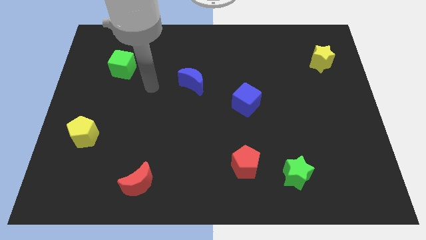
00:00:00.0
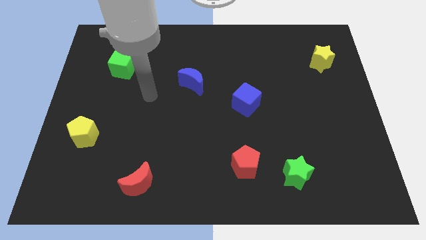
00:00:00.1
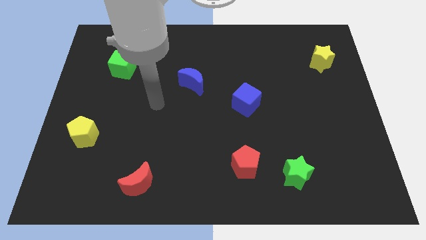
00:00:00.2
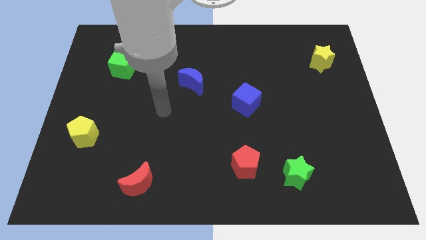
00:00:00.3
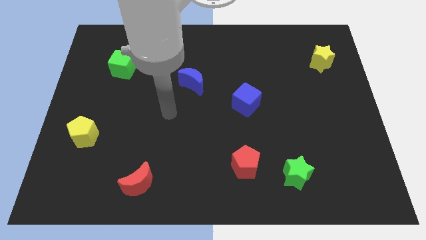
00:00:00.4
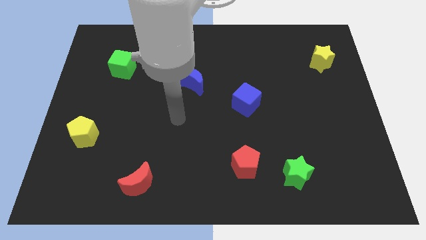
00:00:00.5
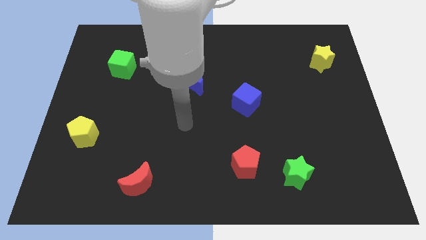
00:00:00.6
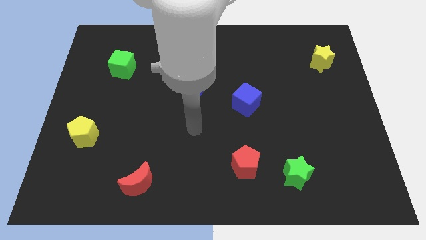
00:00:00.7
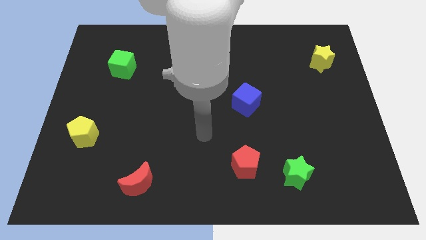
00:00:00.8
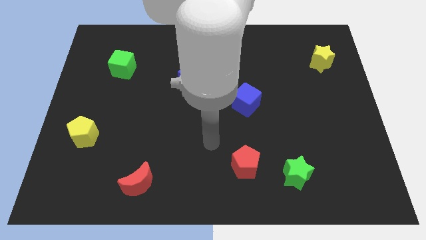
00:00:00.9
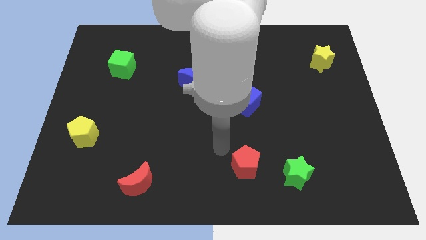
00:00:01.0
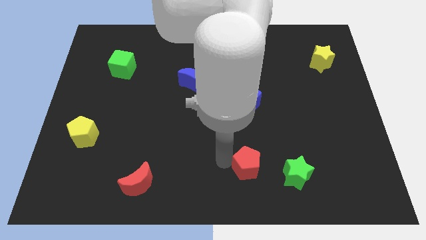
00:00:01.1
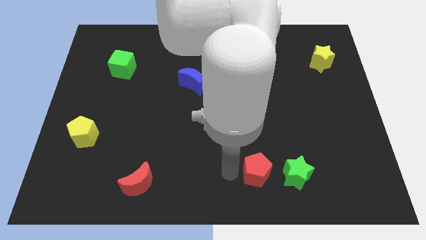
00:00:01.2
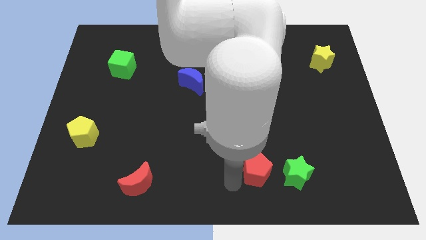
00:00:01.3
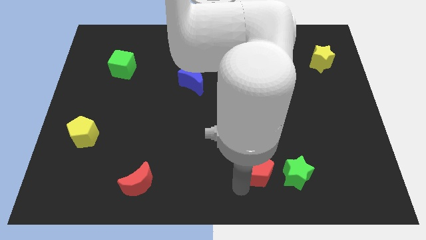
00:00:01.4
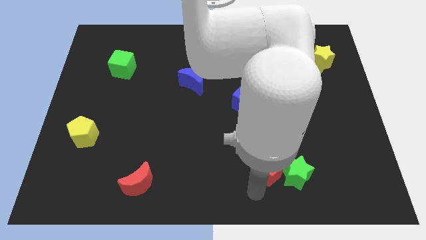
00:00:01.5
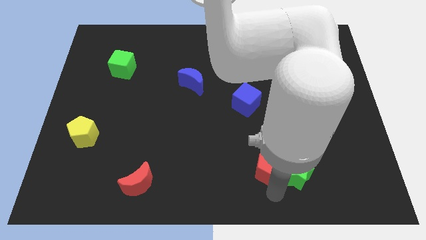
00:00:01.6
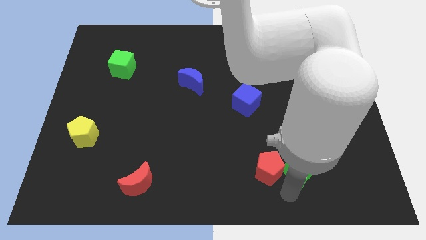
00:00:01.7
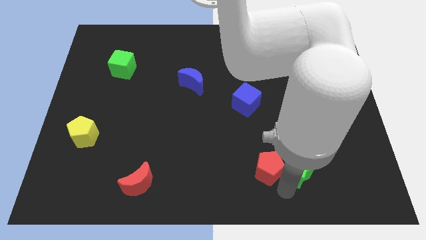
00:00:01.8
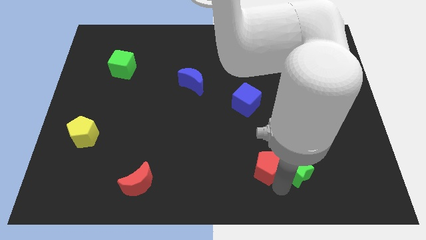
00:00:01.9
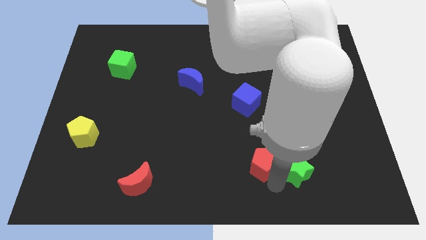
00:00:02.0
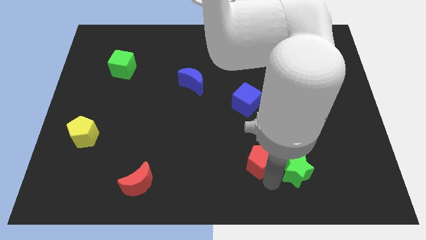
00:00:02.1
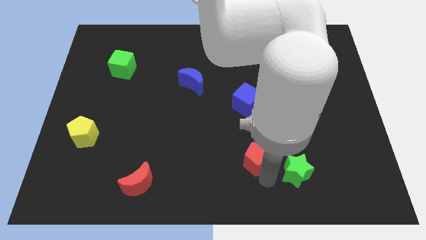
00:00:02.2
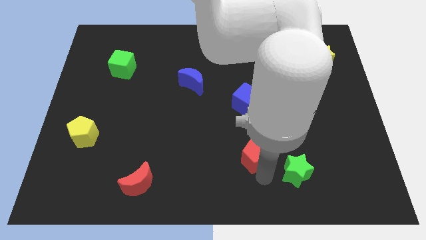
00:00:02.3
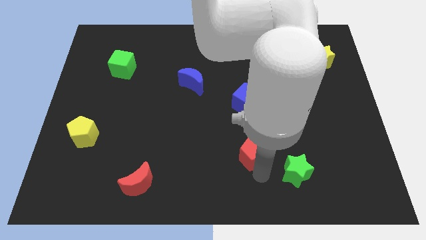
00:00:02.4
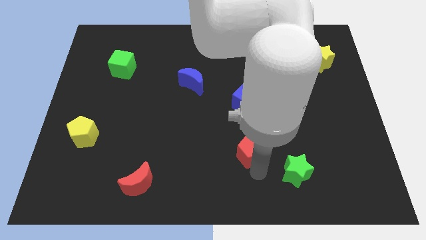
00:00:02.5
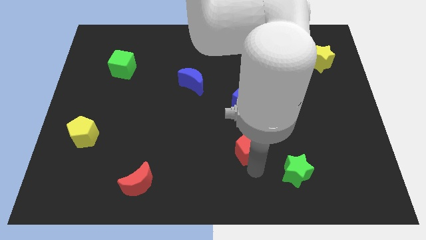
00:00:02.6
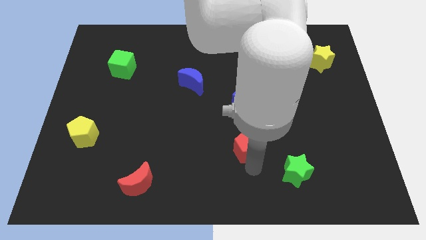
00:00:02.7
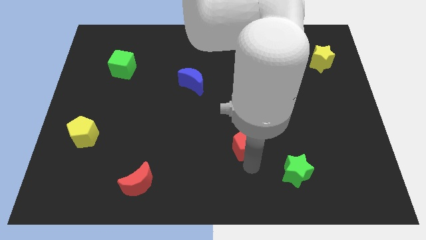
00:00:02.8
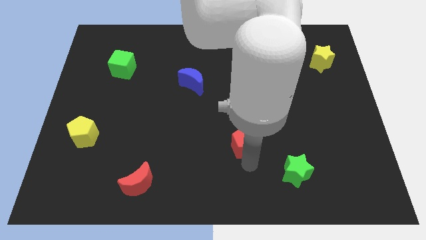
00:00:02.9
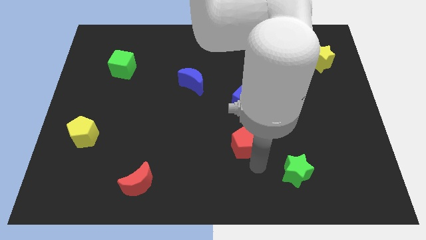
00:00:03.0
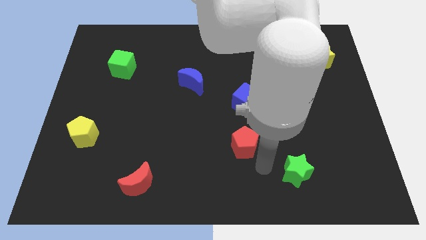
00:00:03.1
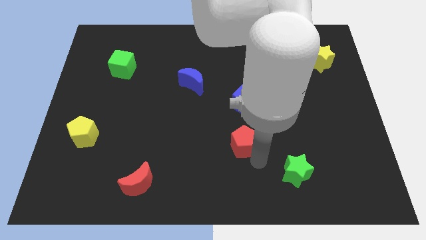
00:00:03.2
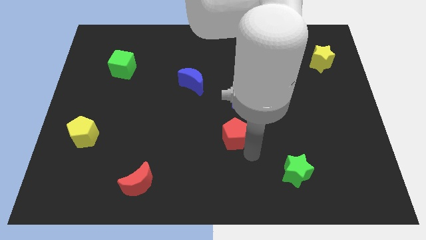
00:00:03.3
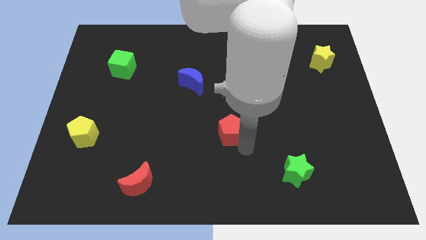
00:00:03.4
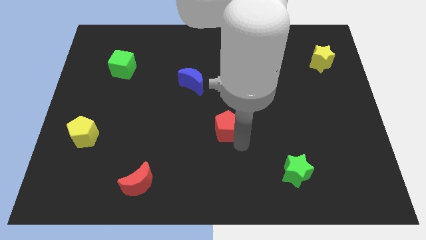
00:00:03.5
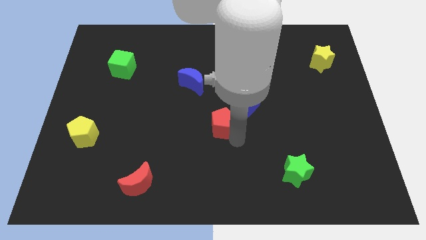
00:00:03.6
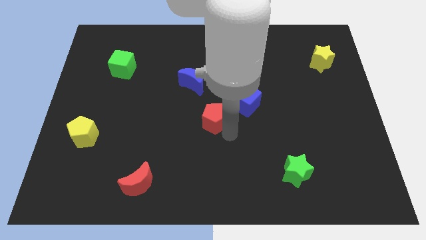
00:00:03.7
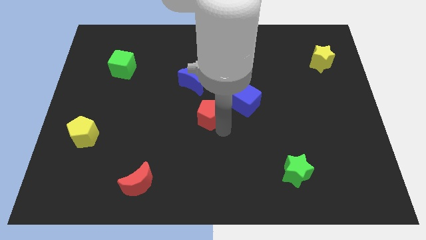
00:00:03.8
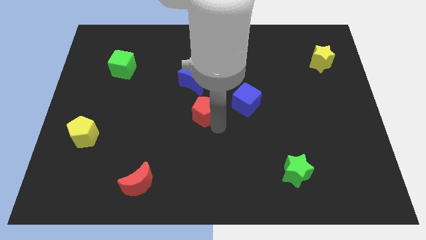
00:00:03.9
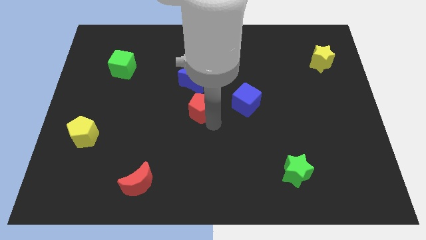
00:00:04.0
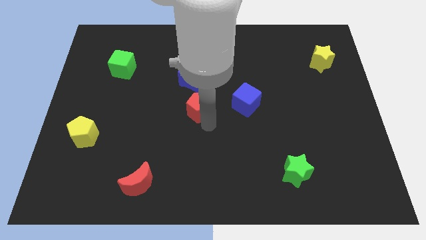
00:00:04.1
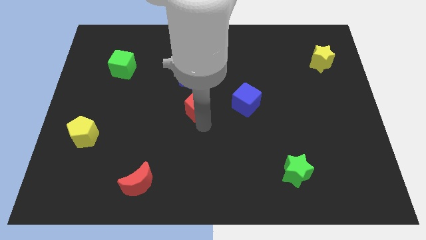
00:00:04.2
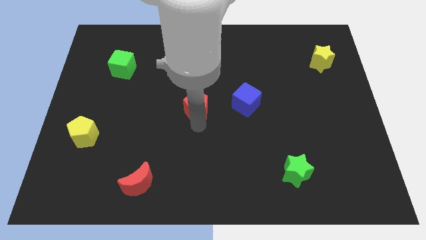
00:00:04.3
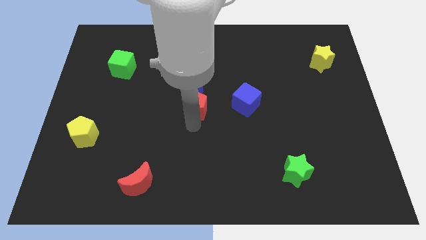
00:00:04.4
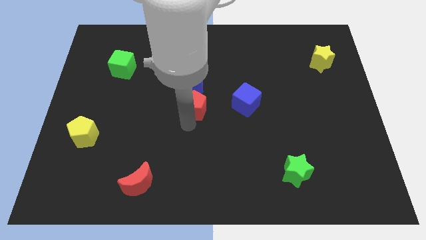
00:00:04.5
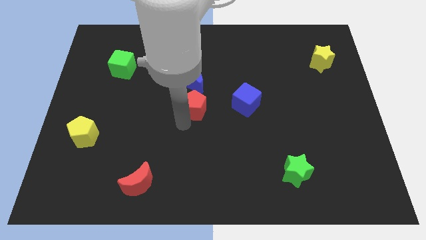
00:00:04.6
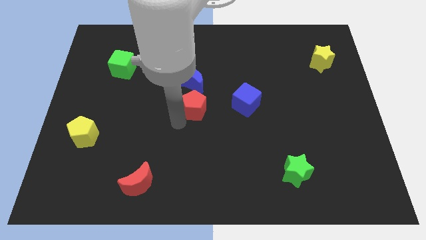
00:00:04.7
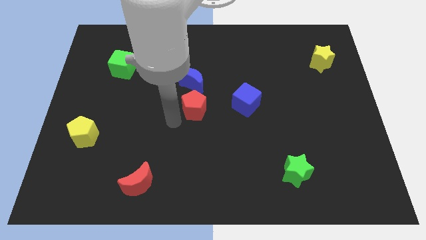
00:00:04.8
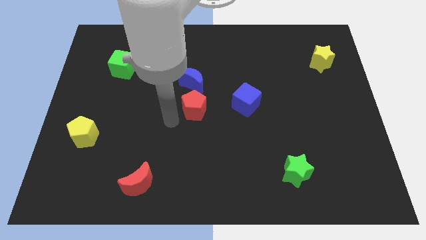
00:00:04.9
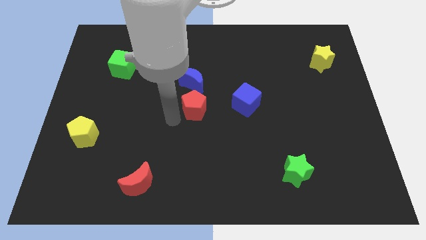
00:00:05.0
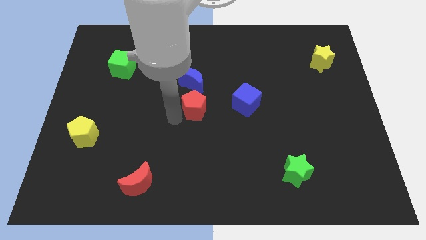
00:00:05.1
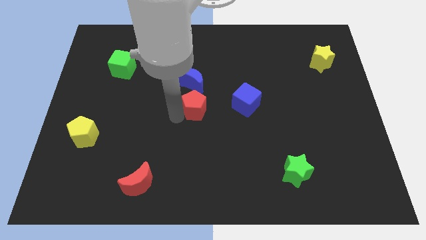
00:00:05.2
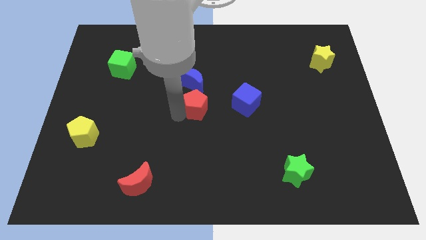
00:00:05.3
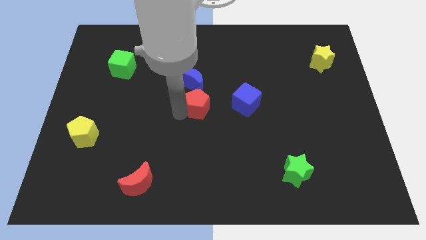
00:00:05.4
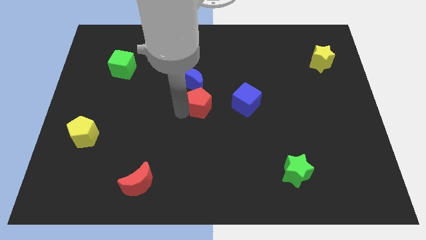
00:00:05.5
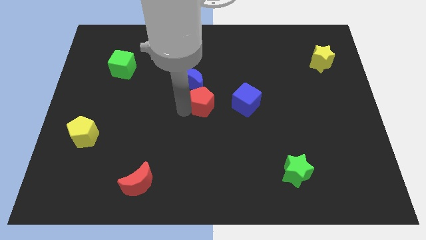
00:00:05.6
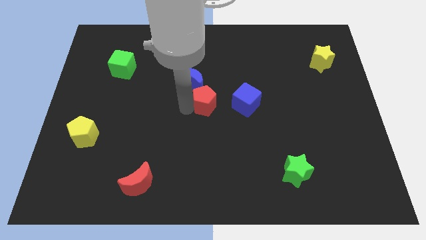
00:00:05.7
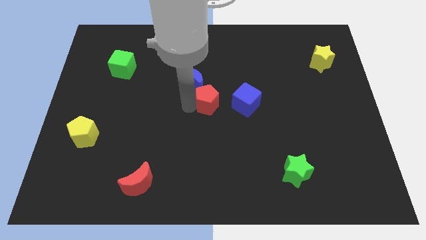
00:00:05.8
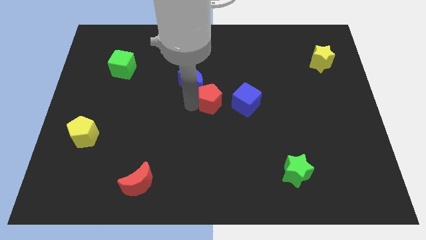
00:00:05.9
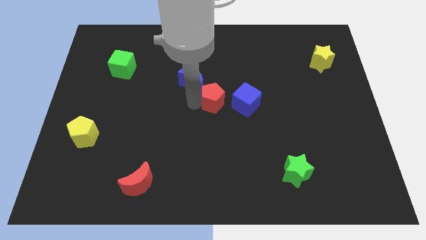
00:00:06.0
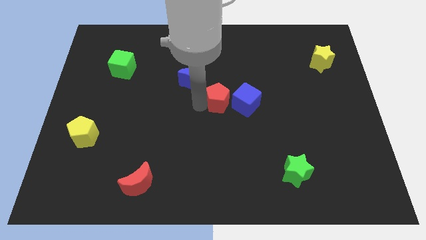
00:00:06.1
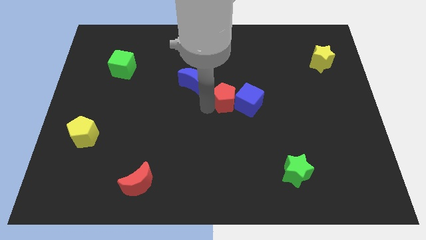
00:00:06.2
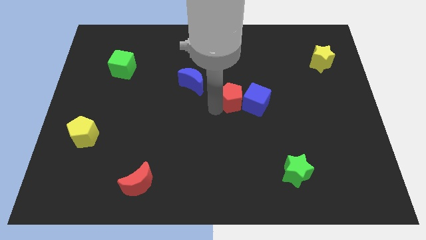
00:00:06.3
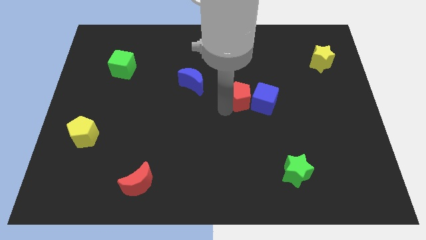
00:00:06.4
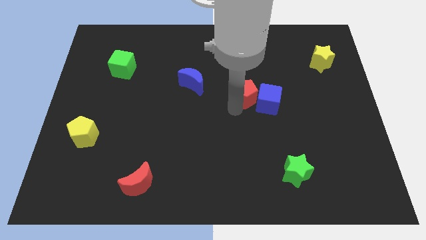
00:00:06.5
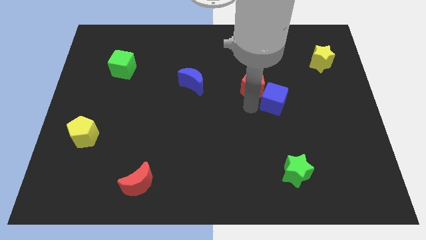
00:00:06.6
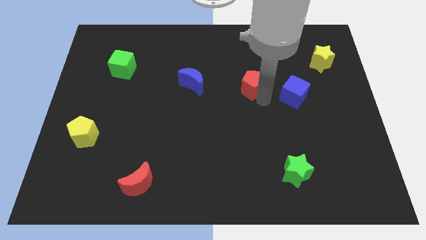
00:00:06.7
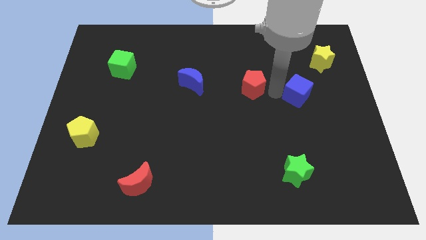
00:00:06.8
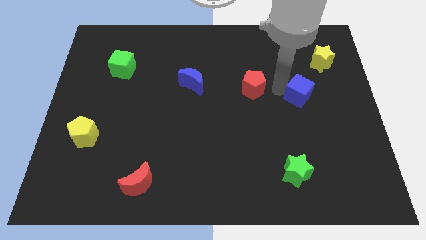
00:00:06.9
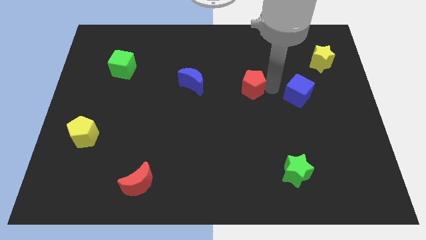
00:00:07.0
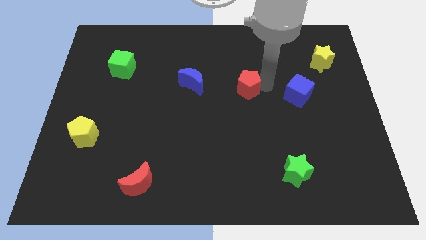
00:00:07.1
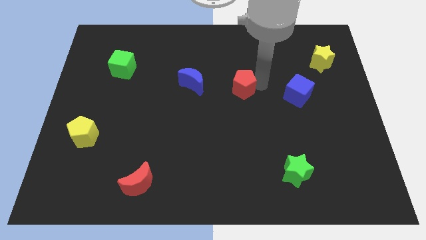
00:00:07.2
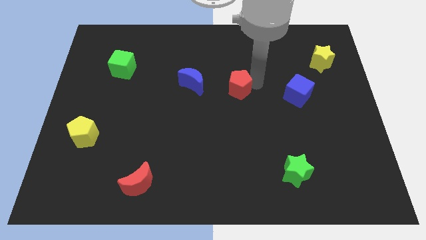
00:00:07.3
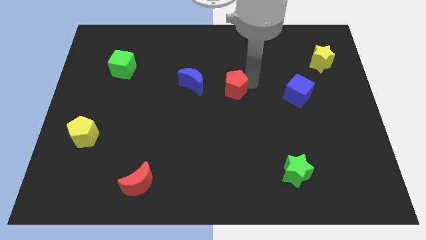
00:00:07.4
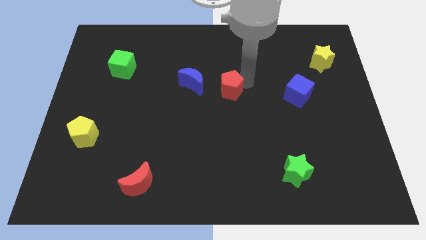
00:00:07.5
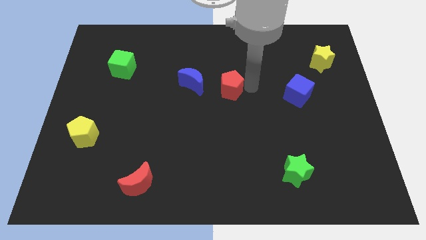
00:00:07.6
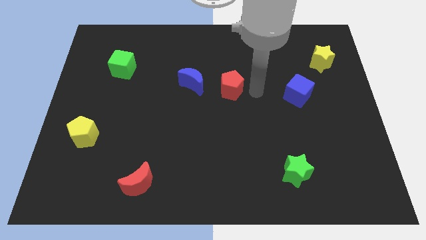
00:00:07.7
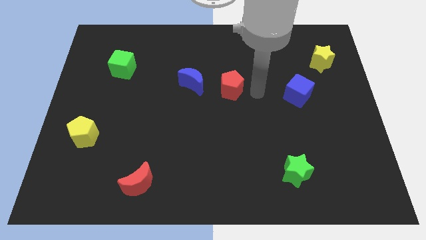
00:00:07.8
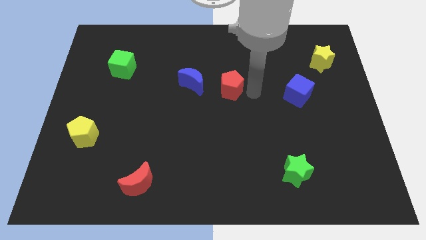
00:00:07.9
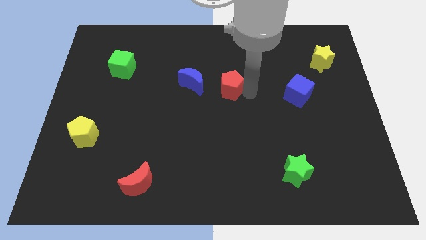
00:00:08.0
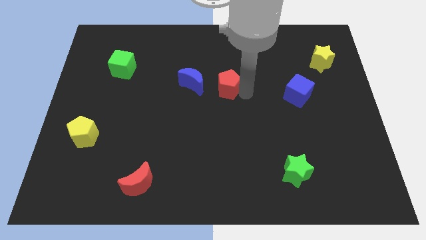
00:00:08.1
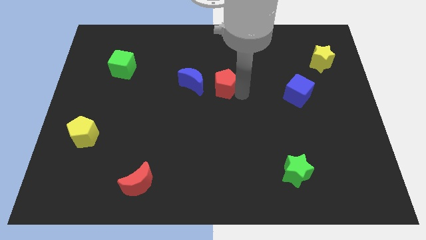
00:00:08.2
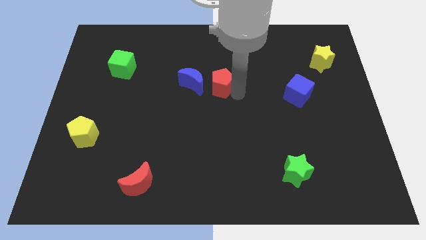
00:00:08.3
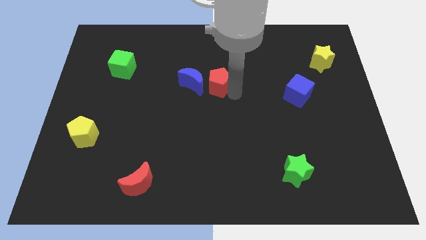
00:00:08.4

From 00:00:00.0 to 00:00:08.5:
move the red pentagon towards the blue moon
